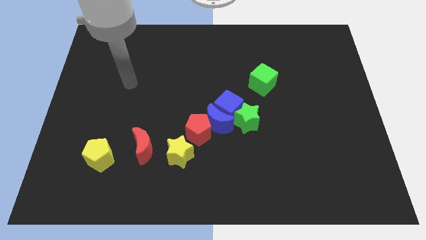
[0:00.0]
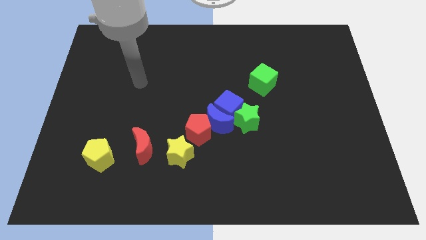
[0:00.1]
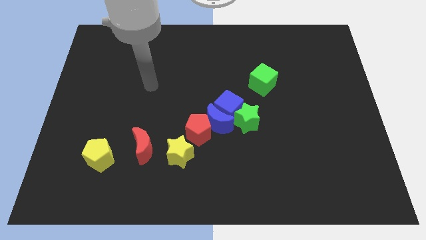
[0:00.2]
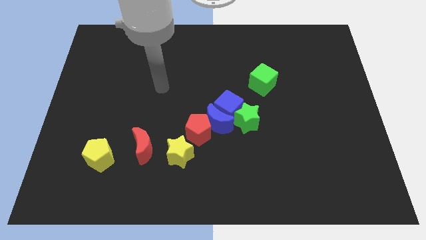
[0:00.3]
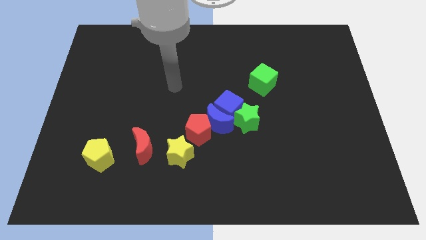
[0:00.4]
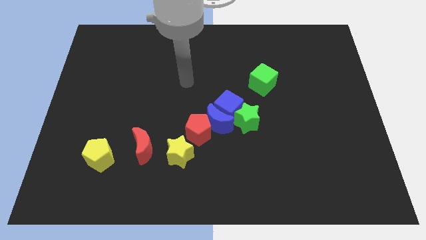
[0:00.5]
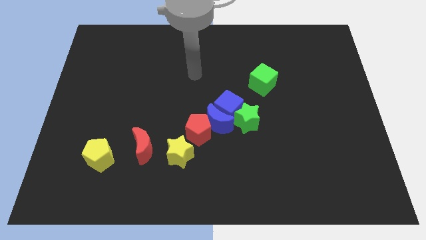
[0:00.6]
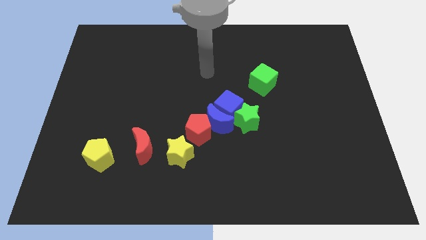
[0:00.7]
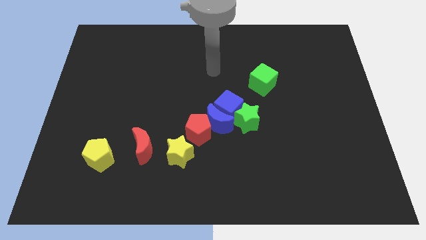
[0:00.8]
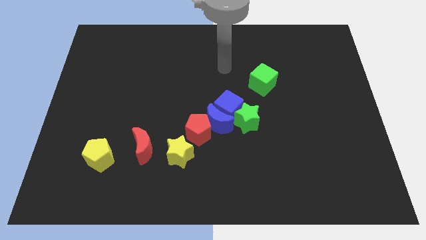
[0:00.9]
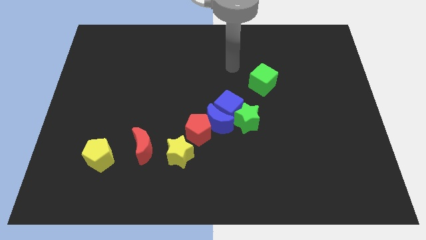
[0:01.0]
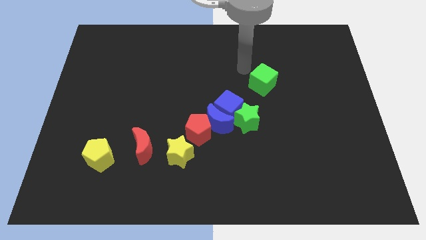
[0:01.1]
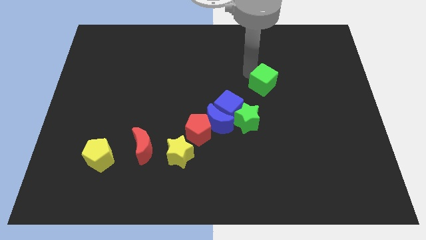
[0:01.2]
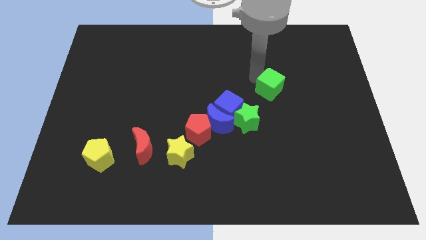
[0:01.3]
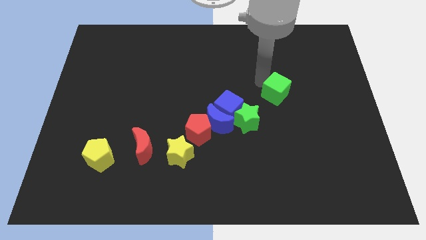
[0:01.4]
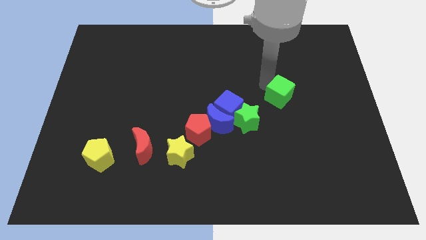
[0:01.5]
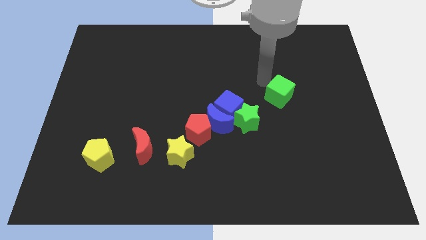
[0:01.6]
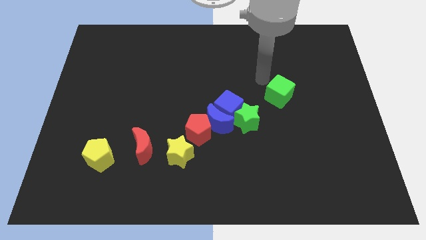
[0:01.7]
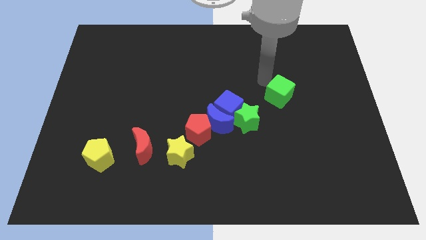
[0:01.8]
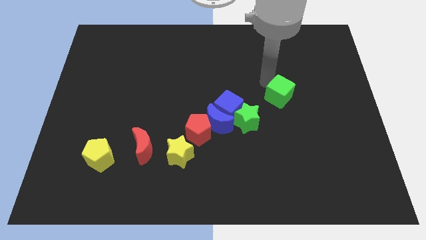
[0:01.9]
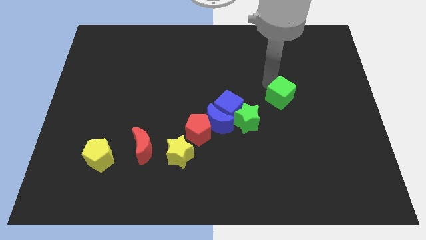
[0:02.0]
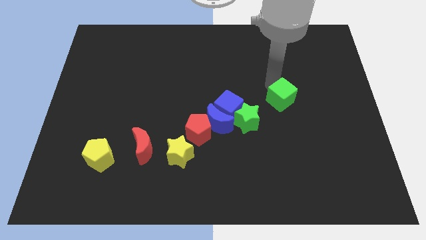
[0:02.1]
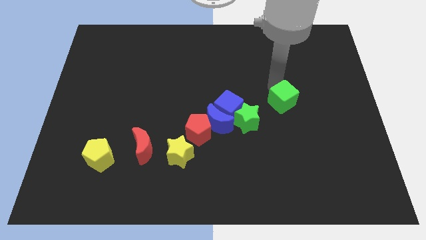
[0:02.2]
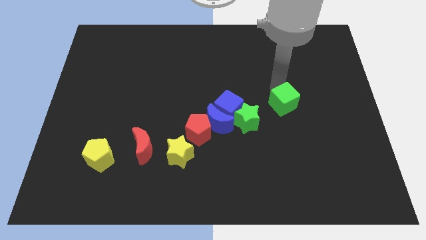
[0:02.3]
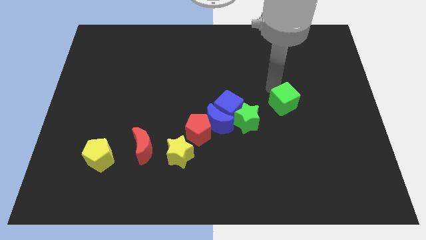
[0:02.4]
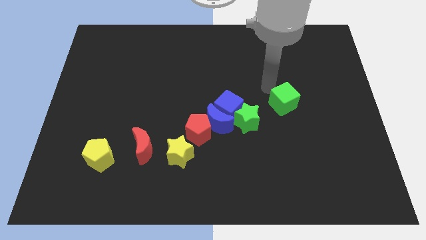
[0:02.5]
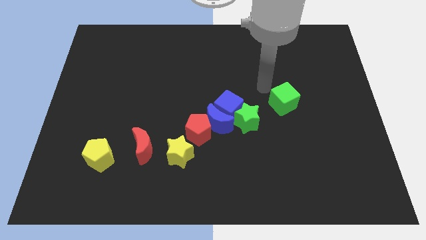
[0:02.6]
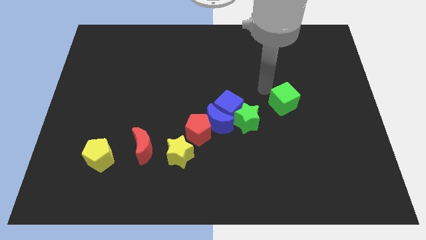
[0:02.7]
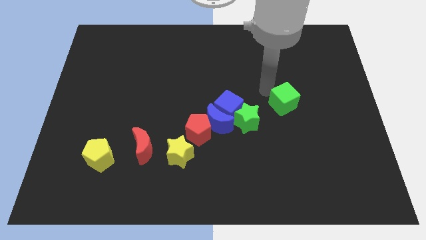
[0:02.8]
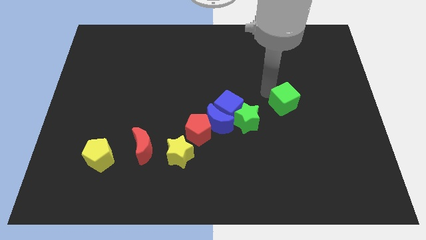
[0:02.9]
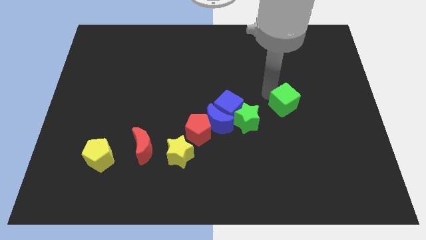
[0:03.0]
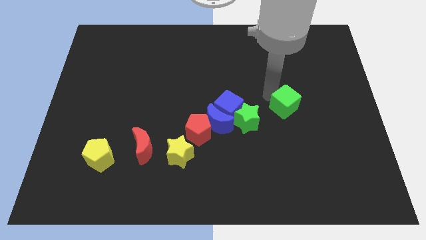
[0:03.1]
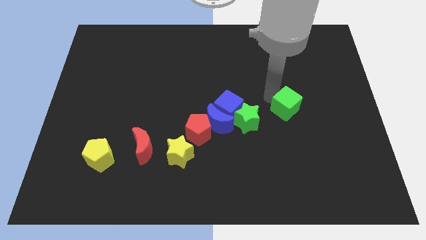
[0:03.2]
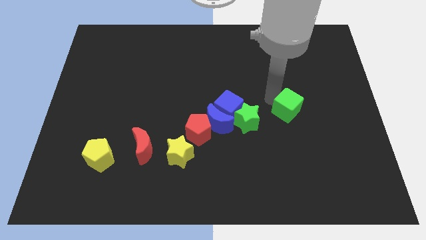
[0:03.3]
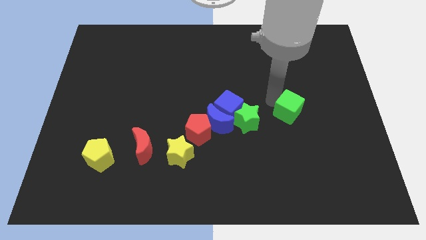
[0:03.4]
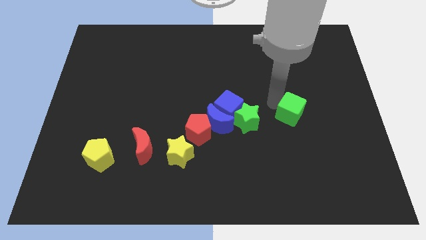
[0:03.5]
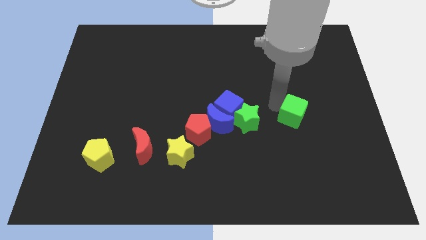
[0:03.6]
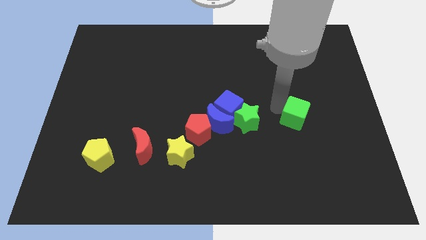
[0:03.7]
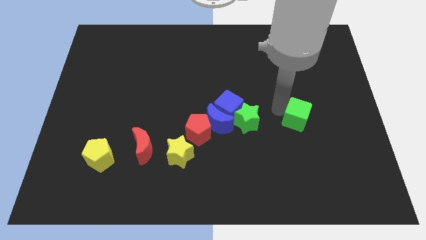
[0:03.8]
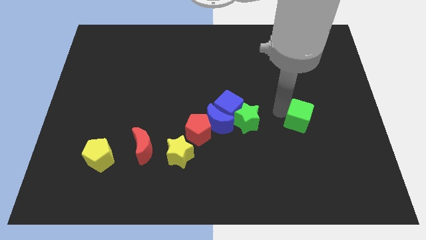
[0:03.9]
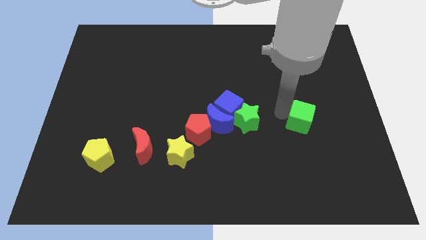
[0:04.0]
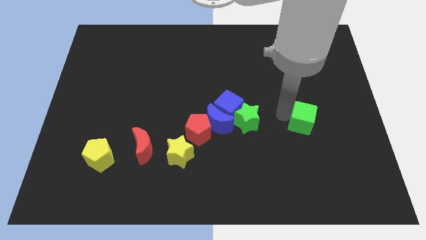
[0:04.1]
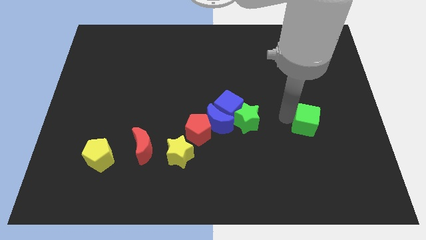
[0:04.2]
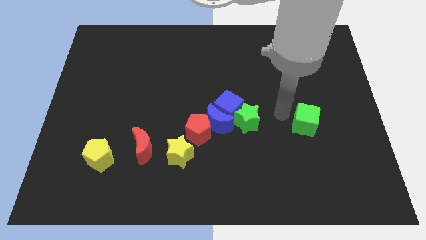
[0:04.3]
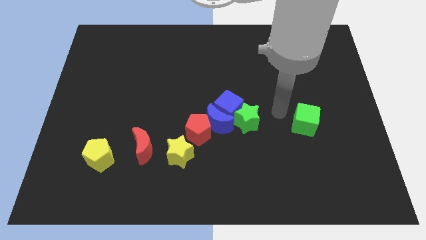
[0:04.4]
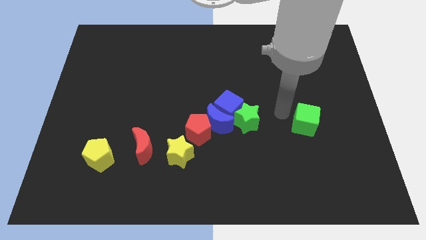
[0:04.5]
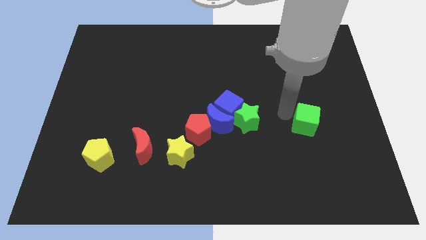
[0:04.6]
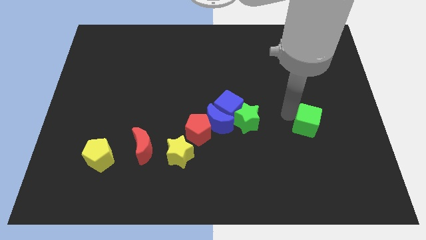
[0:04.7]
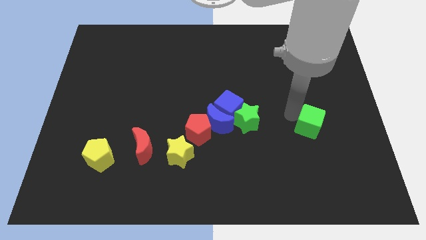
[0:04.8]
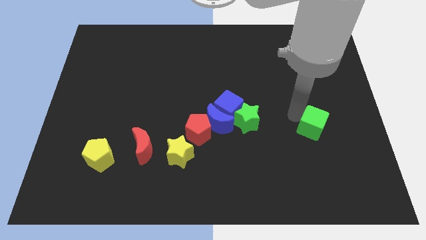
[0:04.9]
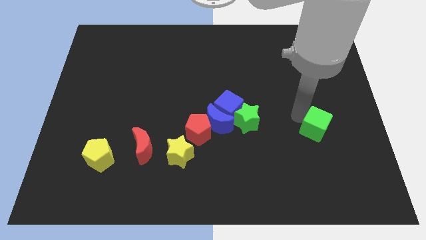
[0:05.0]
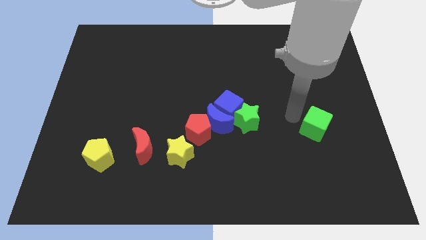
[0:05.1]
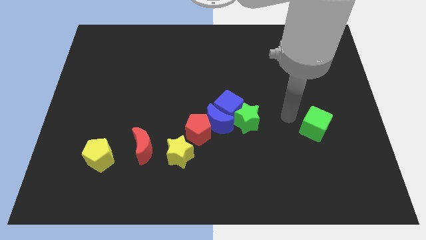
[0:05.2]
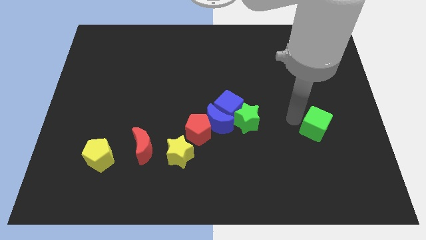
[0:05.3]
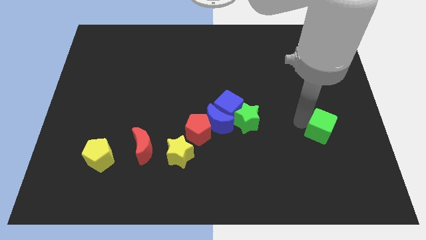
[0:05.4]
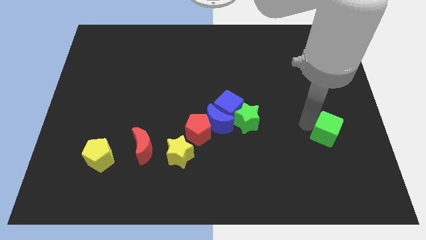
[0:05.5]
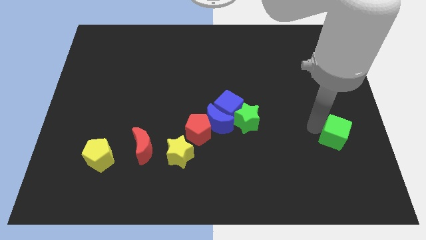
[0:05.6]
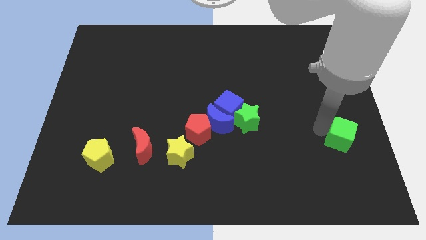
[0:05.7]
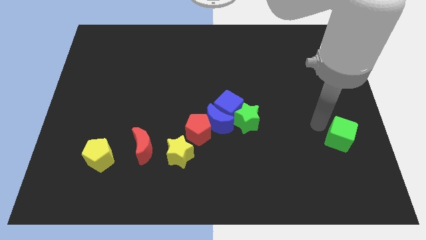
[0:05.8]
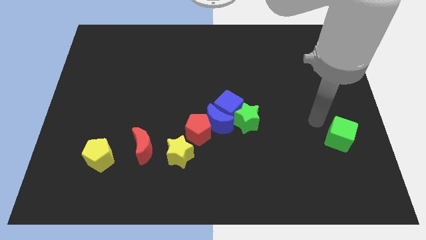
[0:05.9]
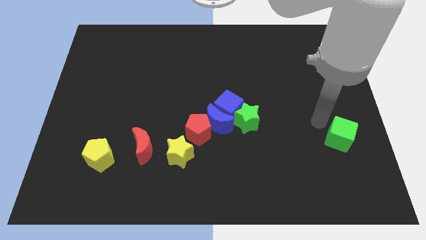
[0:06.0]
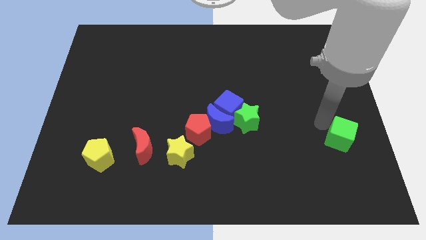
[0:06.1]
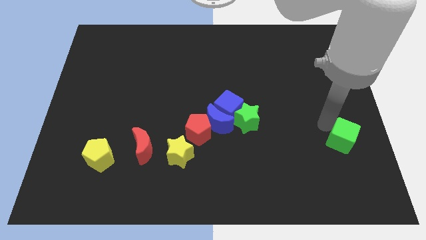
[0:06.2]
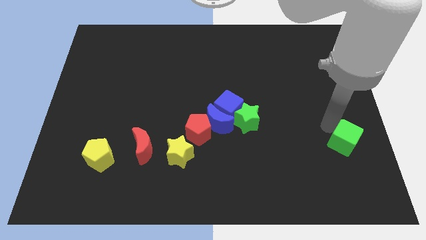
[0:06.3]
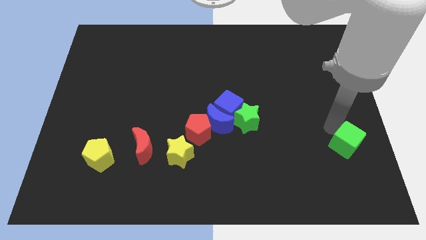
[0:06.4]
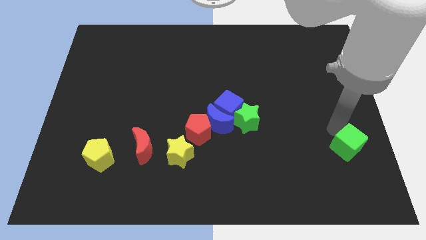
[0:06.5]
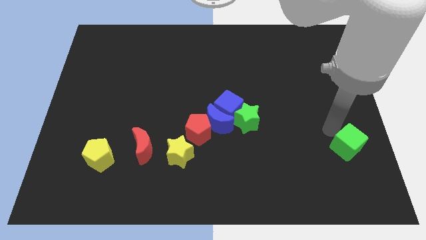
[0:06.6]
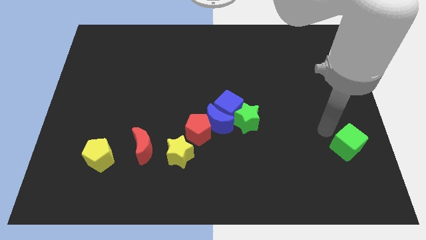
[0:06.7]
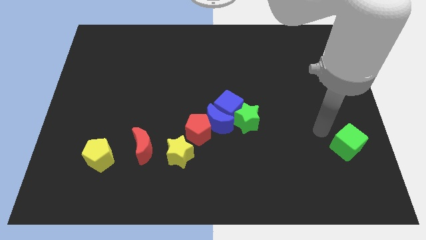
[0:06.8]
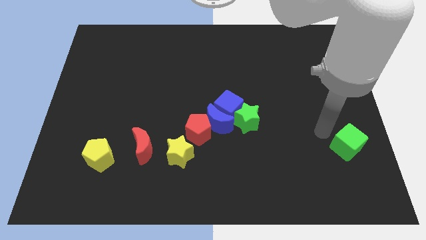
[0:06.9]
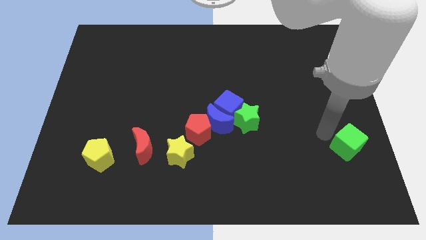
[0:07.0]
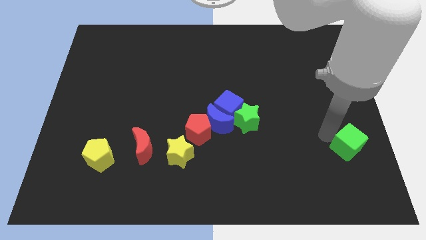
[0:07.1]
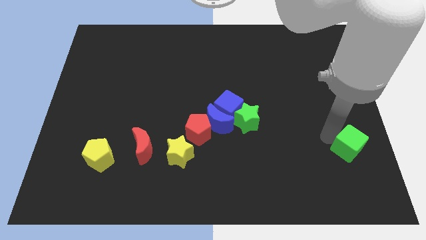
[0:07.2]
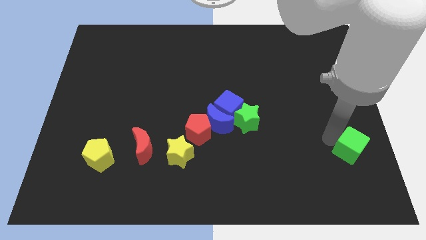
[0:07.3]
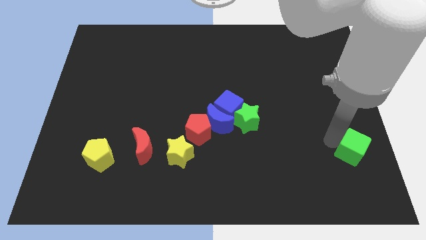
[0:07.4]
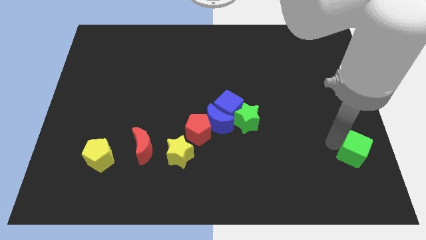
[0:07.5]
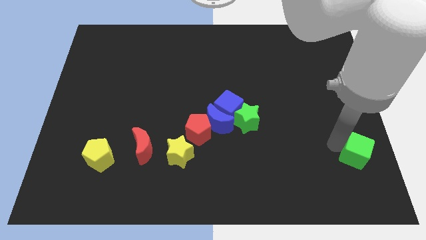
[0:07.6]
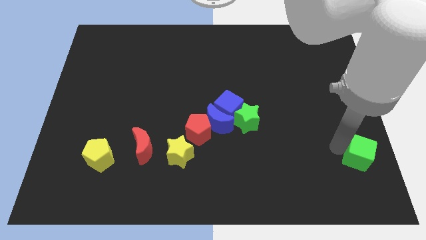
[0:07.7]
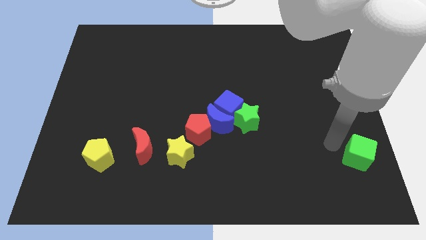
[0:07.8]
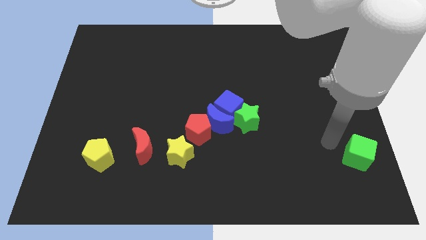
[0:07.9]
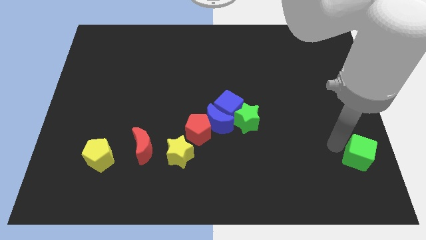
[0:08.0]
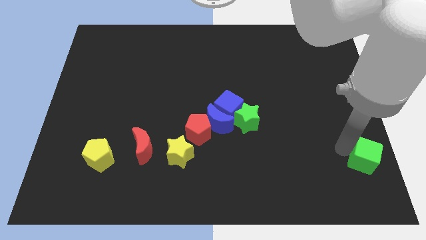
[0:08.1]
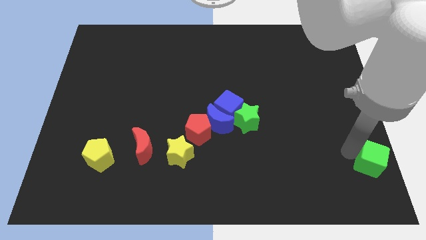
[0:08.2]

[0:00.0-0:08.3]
slide the green cube to the bottom right
